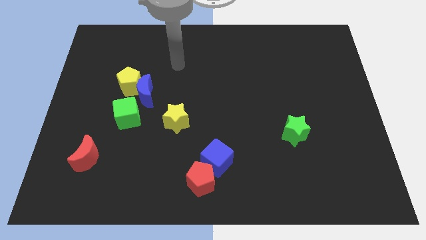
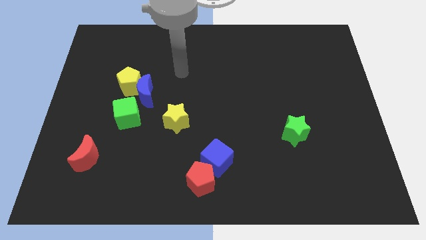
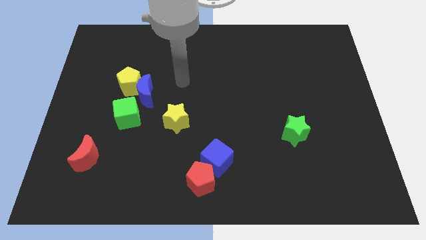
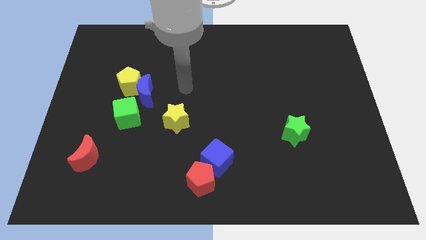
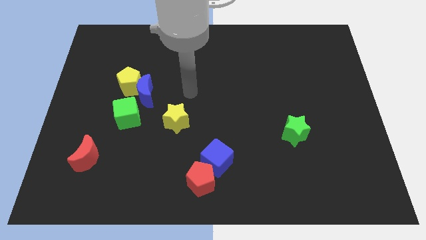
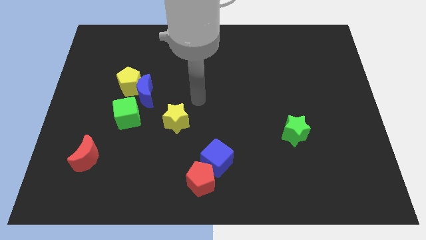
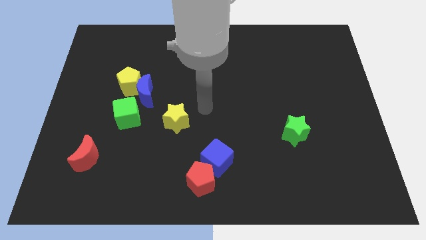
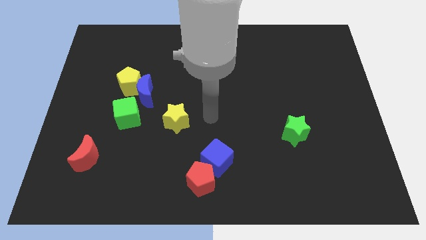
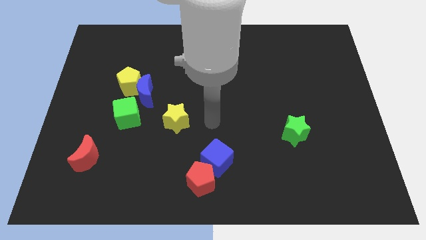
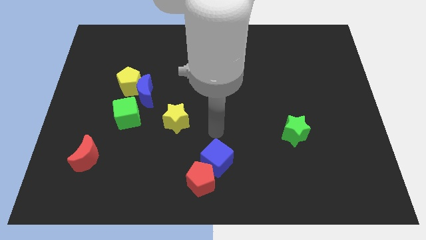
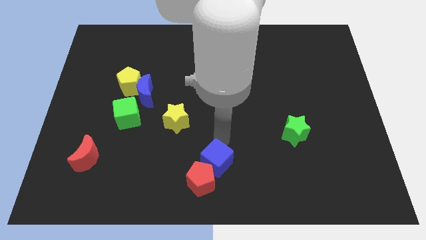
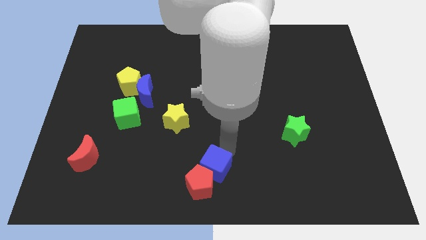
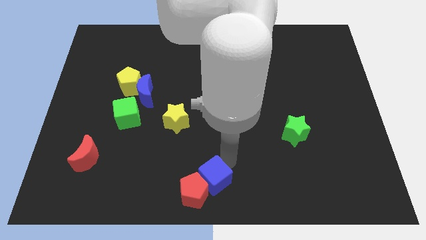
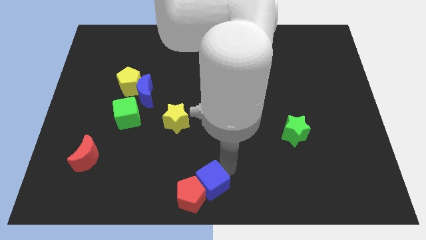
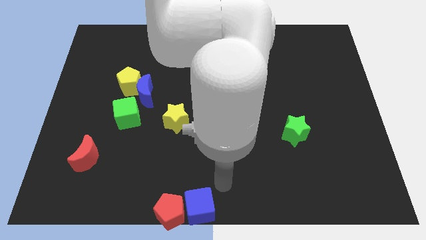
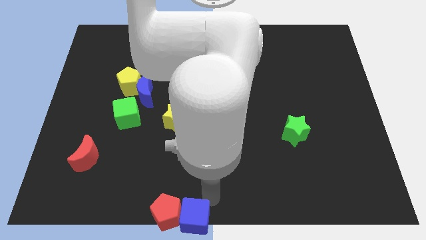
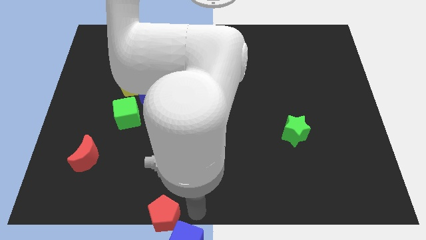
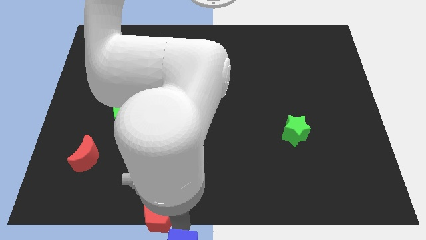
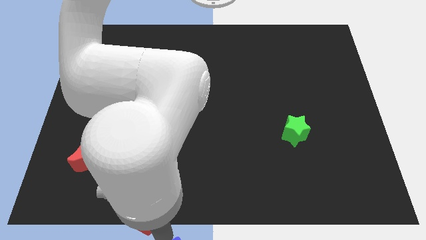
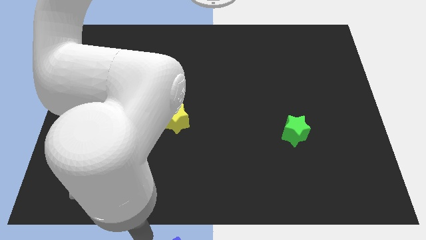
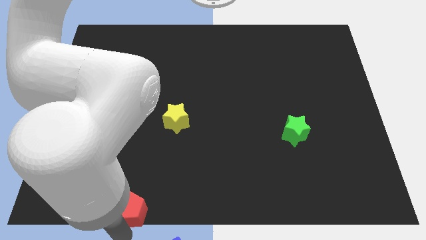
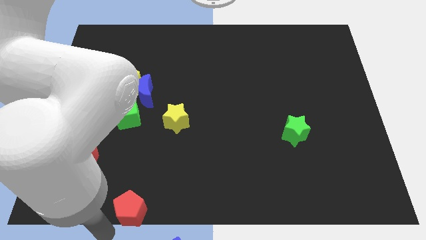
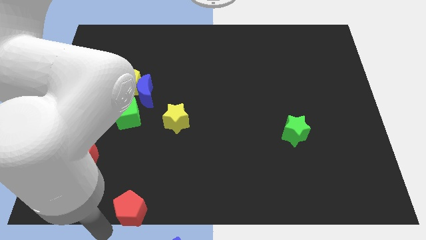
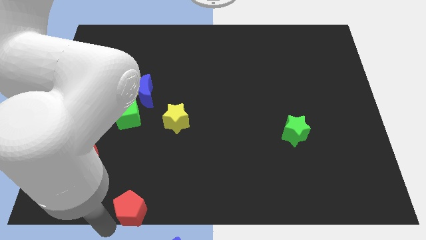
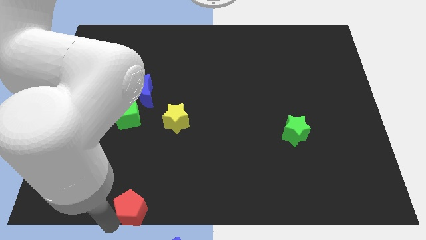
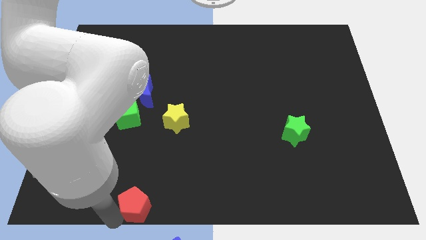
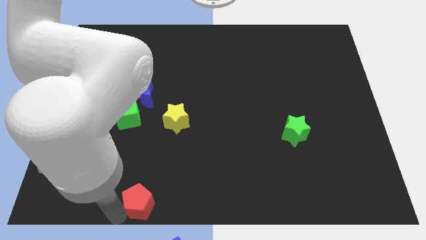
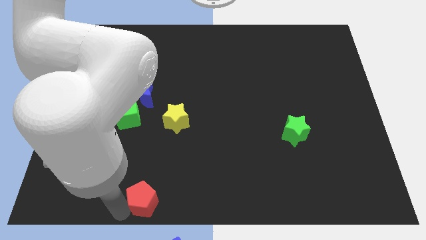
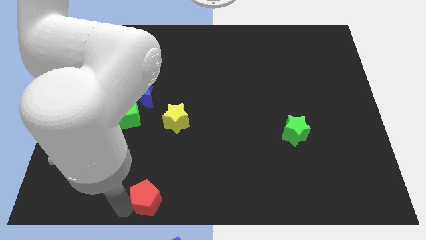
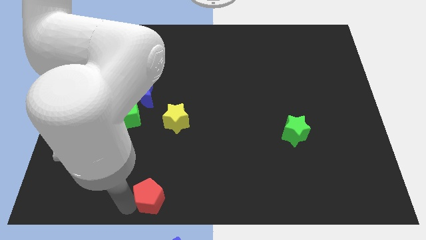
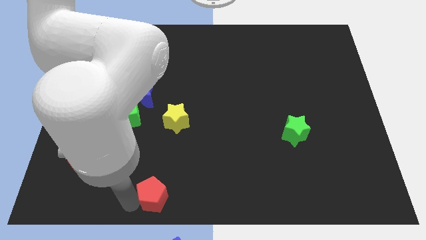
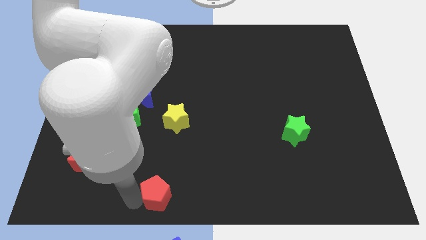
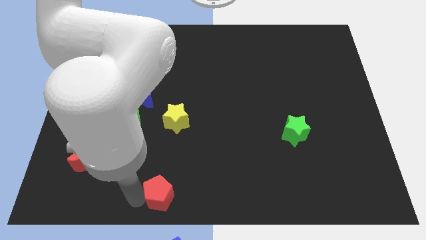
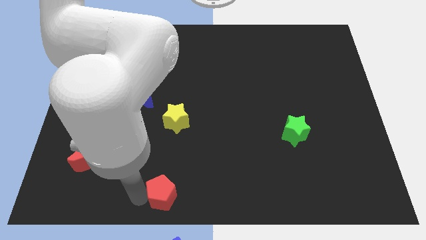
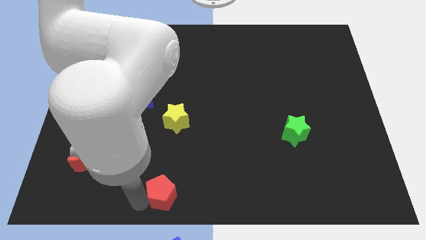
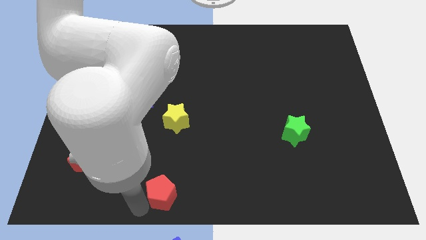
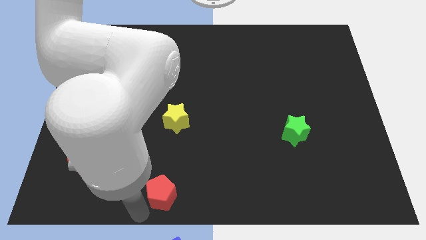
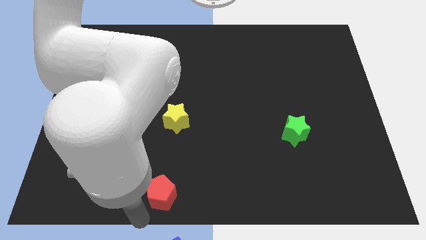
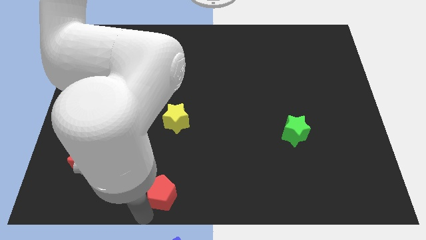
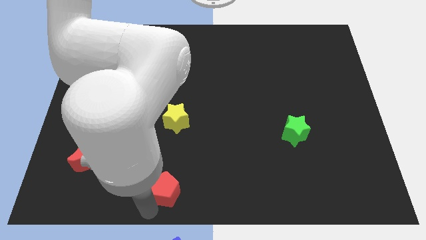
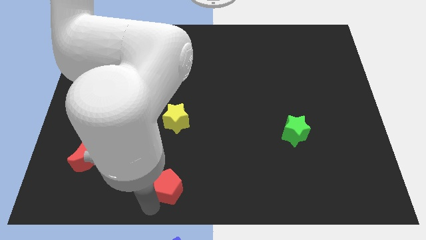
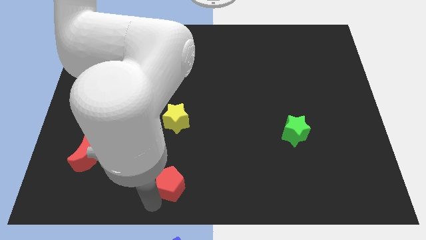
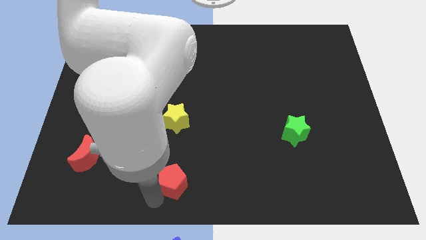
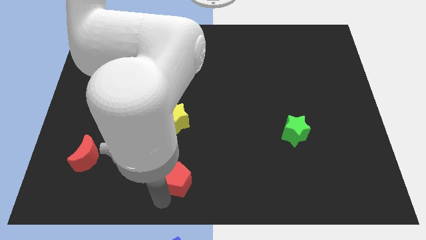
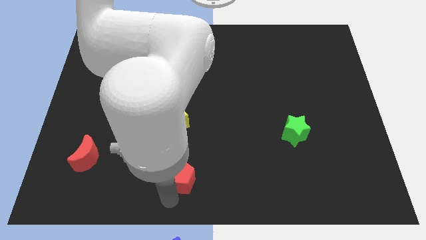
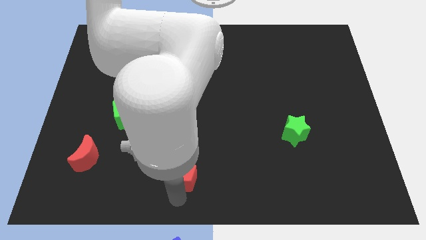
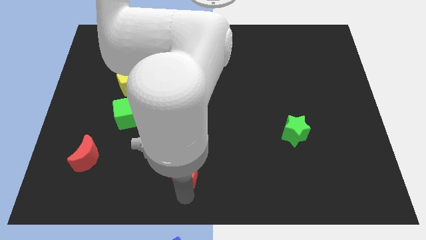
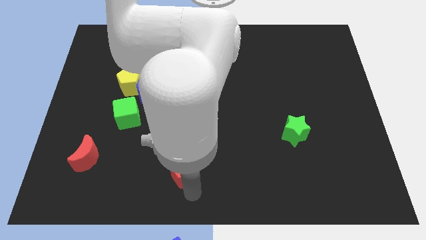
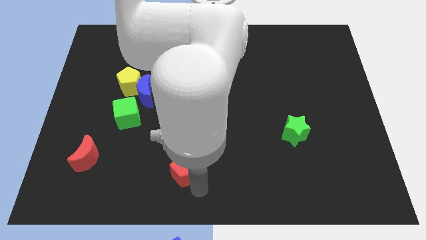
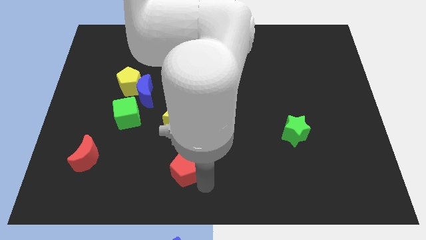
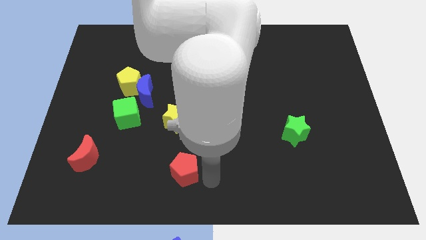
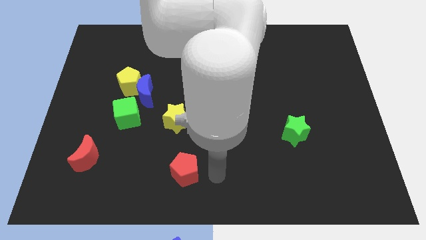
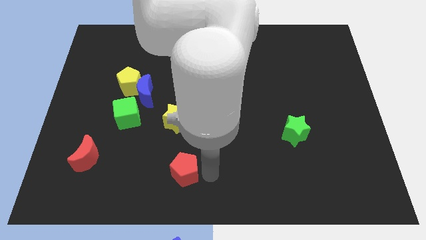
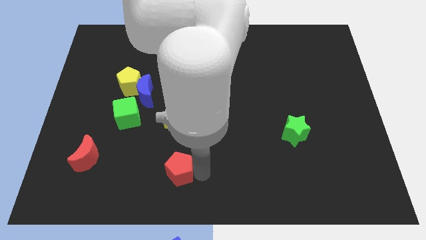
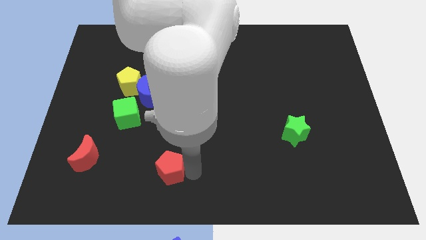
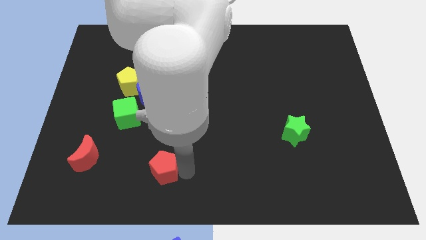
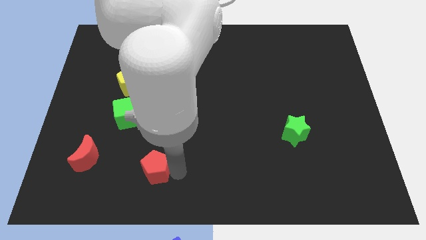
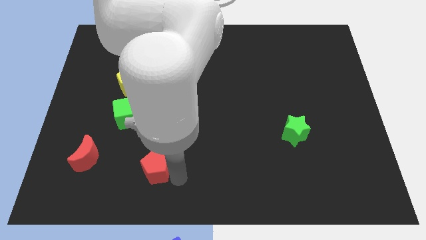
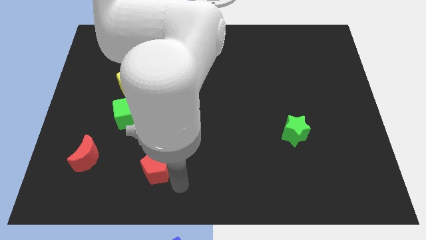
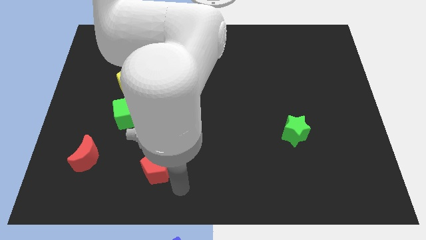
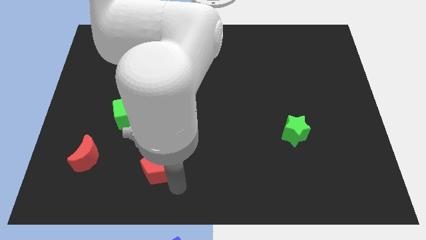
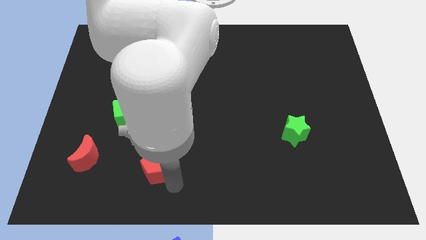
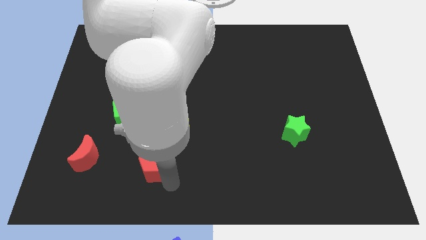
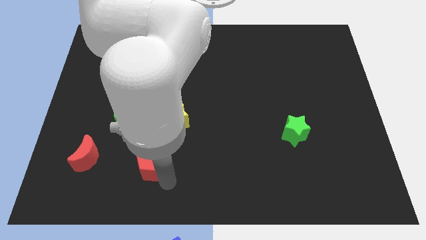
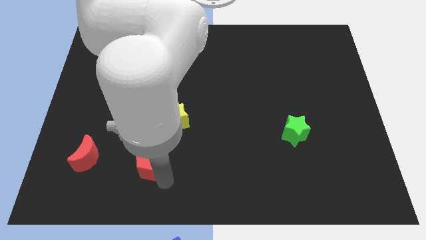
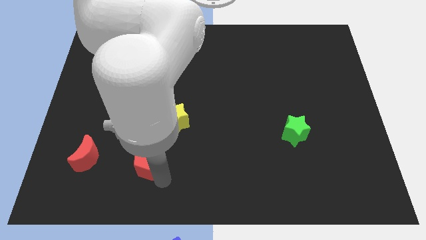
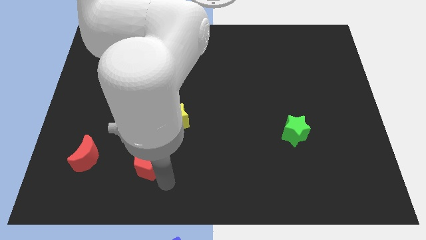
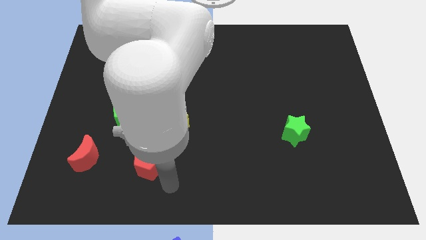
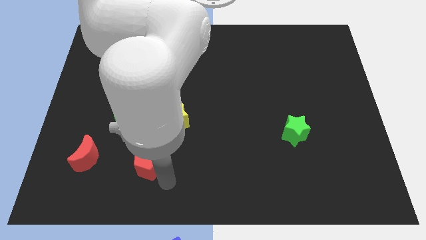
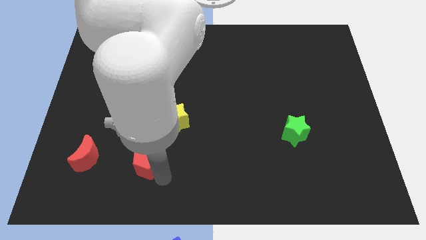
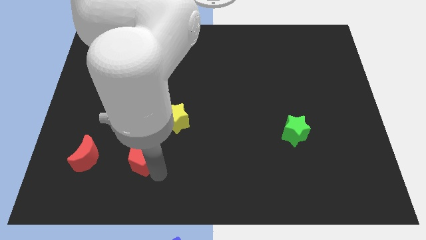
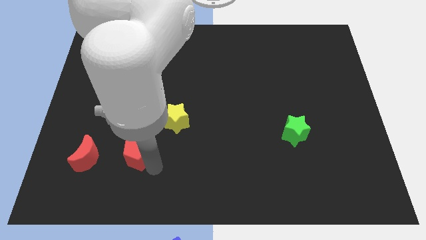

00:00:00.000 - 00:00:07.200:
move the red pentagon below the green cube

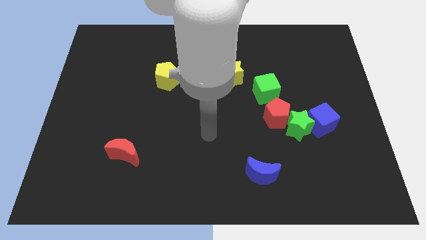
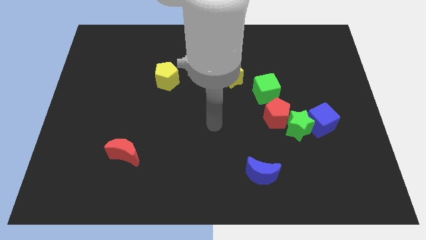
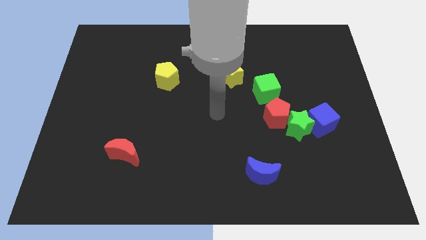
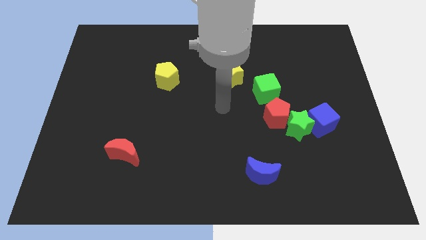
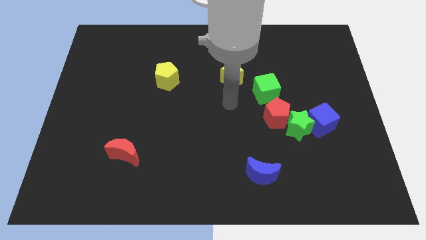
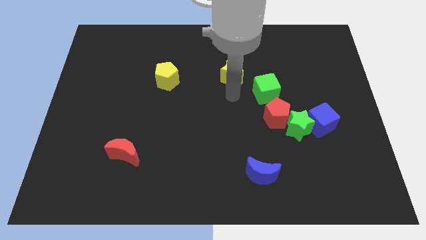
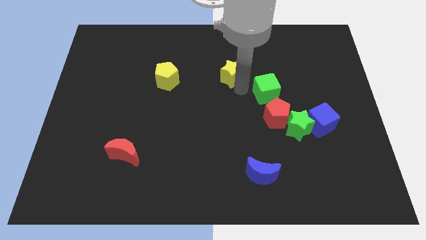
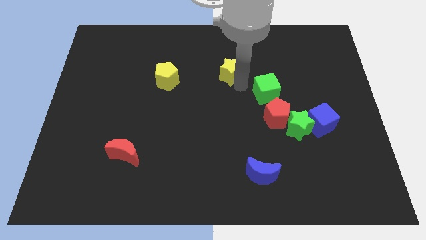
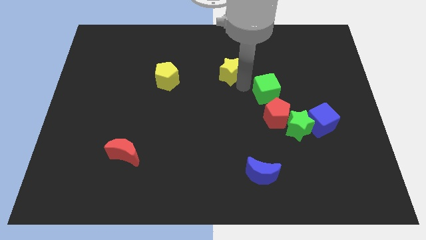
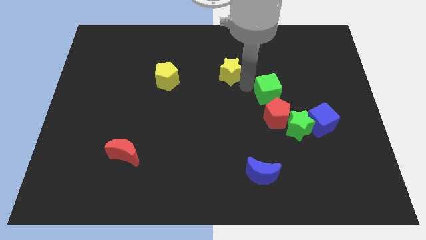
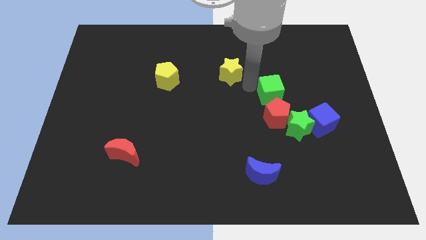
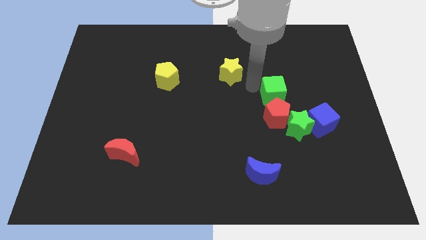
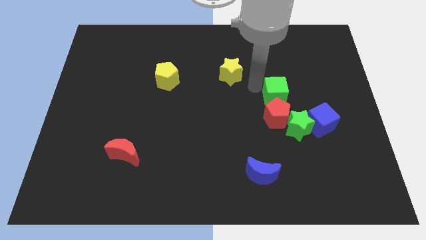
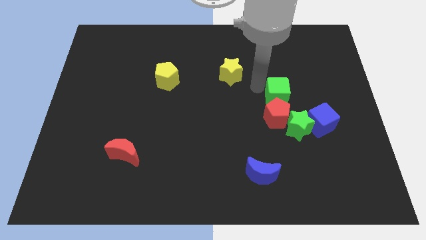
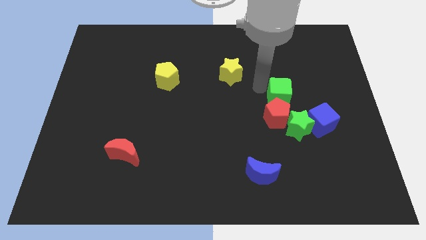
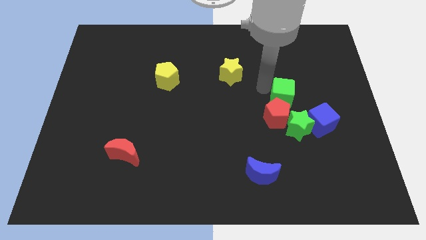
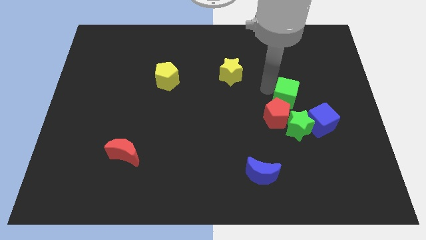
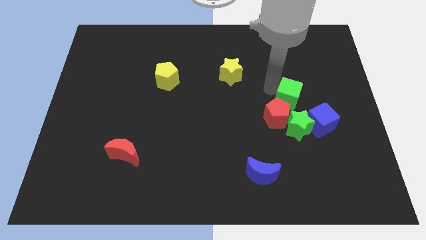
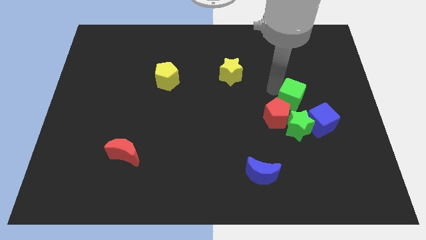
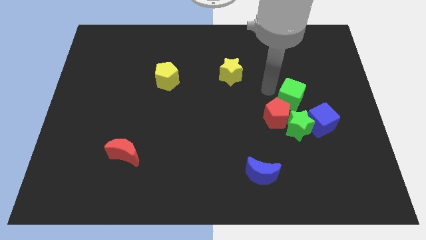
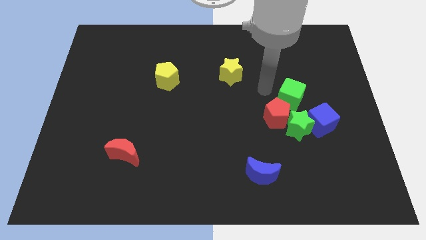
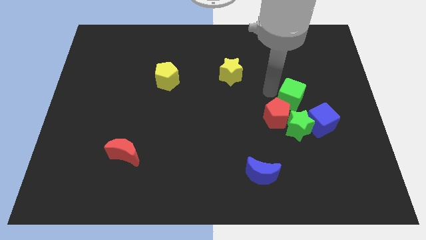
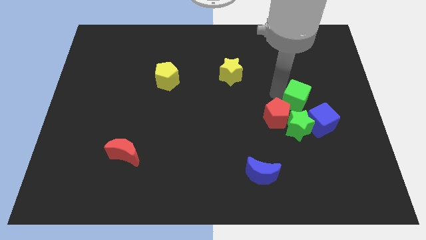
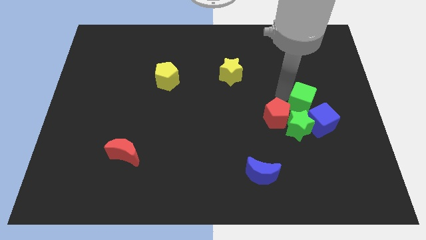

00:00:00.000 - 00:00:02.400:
slide the green cube to the right of the red pentagon
